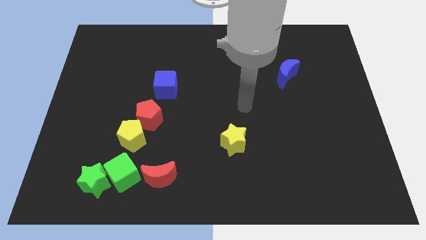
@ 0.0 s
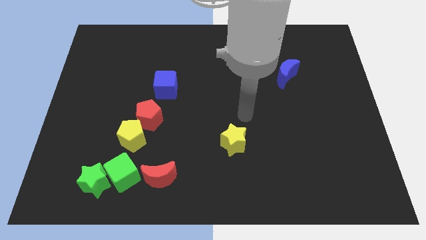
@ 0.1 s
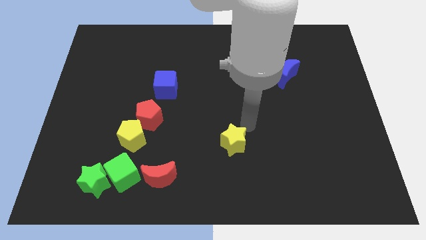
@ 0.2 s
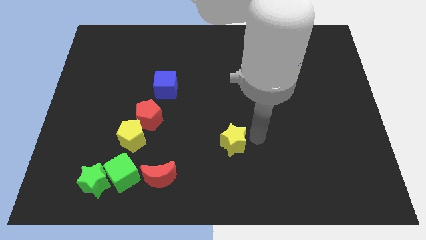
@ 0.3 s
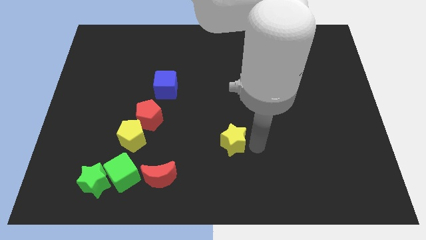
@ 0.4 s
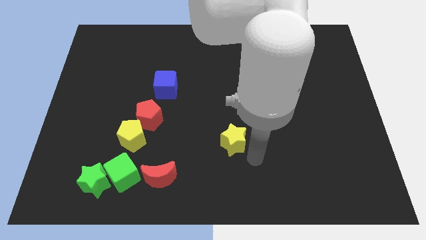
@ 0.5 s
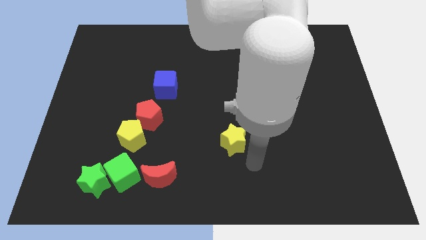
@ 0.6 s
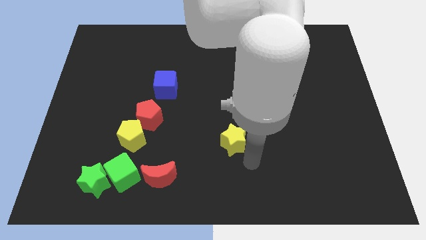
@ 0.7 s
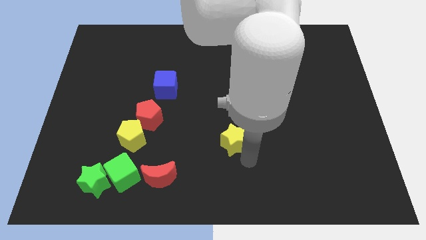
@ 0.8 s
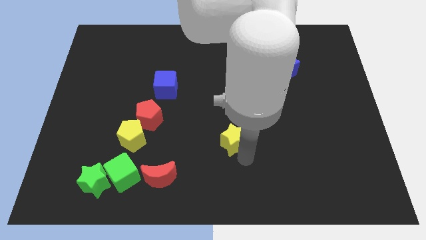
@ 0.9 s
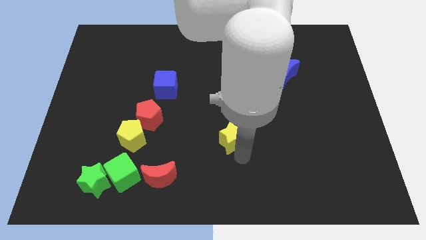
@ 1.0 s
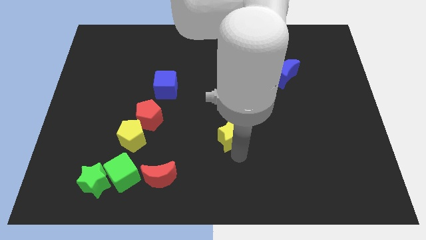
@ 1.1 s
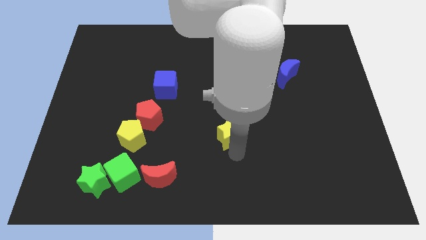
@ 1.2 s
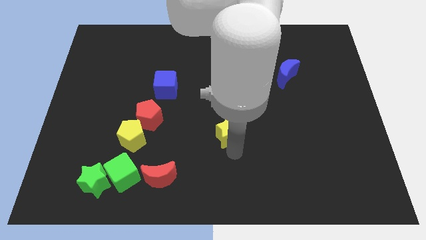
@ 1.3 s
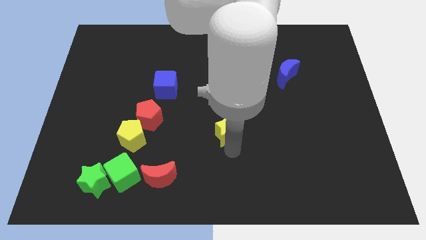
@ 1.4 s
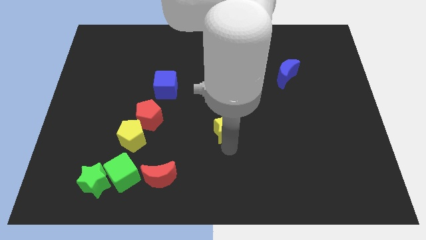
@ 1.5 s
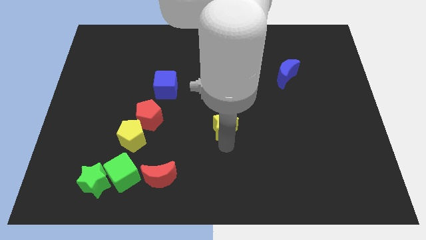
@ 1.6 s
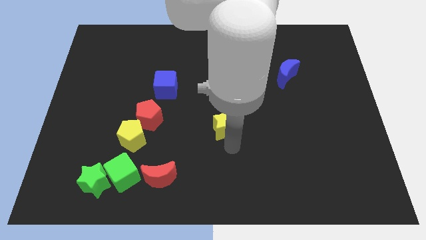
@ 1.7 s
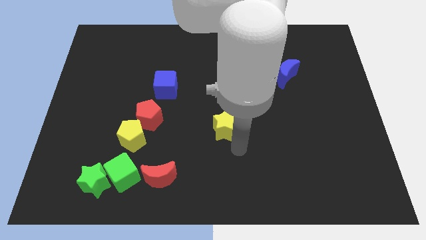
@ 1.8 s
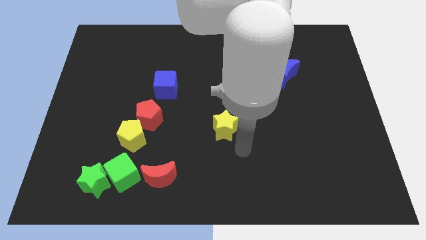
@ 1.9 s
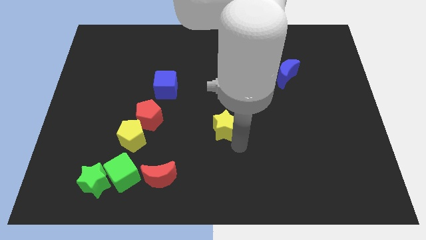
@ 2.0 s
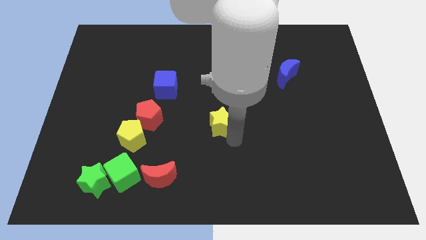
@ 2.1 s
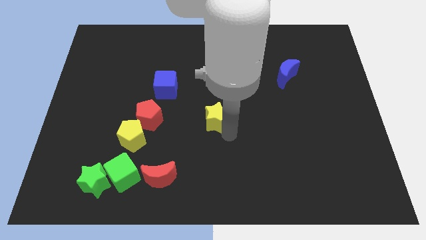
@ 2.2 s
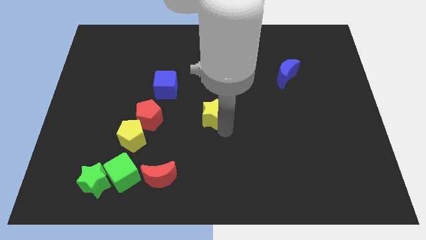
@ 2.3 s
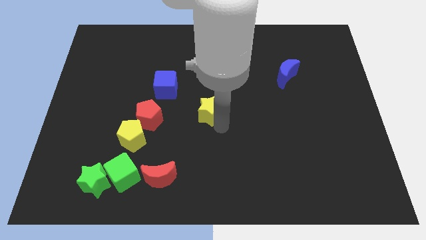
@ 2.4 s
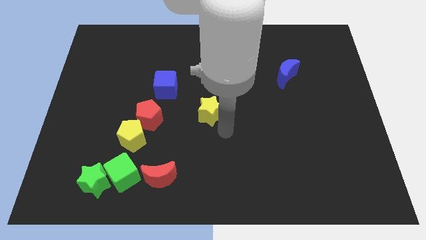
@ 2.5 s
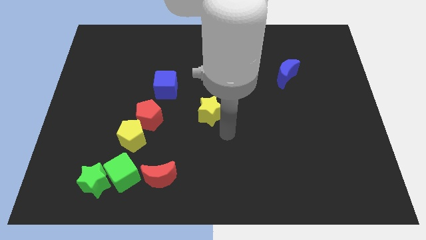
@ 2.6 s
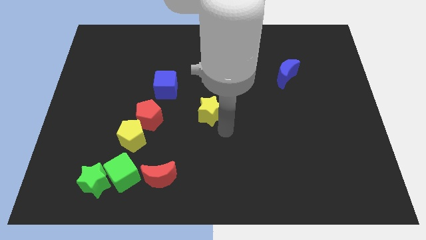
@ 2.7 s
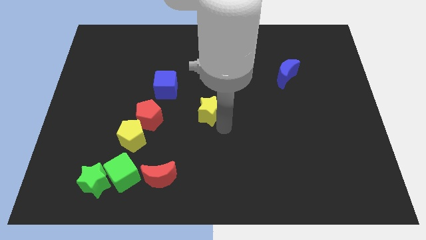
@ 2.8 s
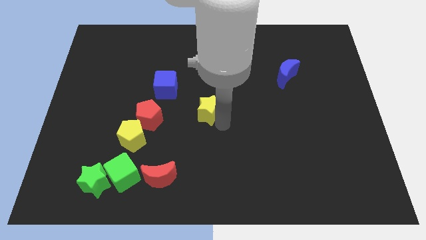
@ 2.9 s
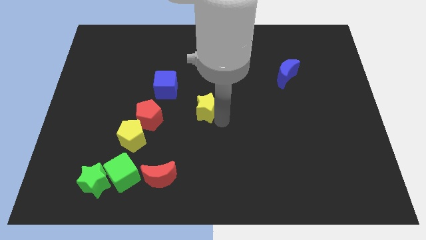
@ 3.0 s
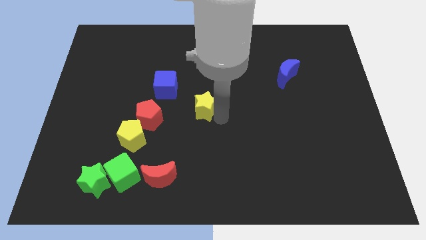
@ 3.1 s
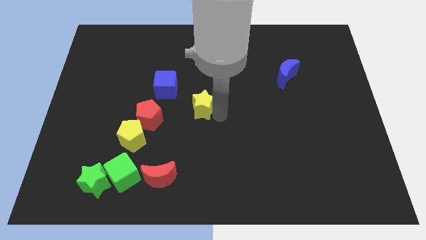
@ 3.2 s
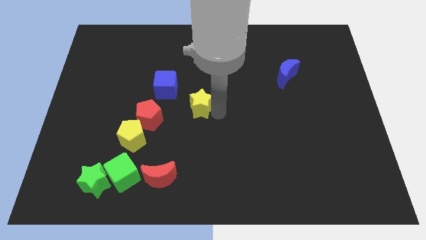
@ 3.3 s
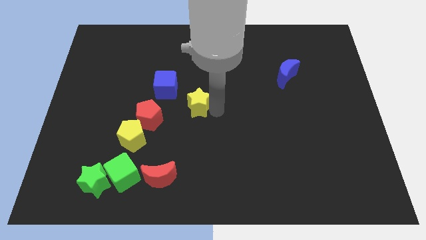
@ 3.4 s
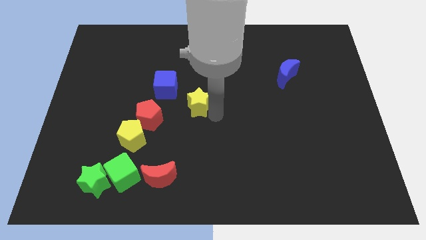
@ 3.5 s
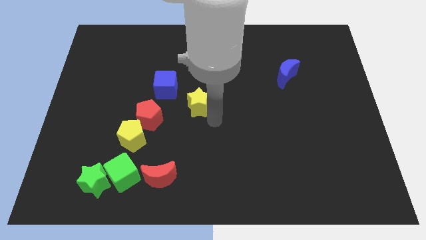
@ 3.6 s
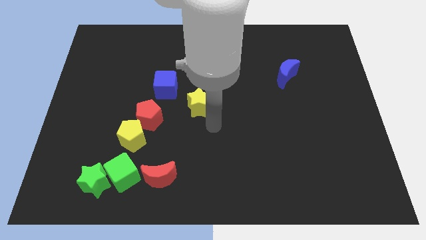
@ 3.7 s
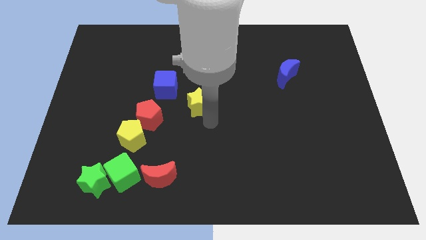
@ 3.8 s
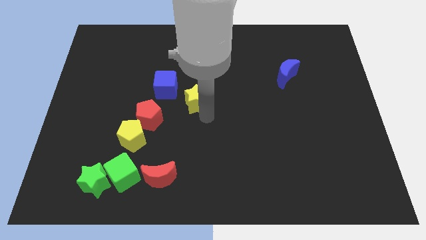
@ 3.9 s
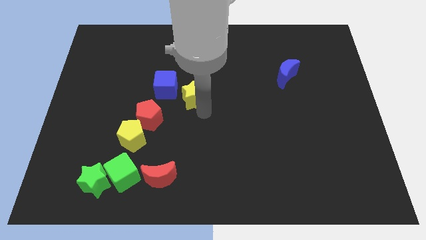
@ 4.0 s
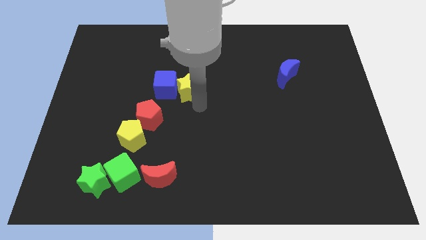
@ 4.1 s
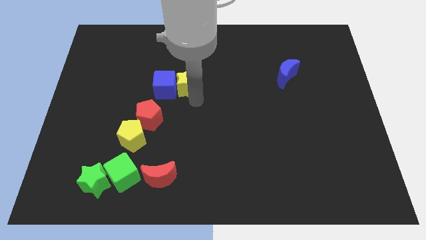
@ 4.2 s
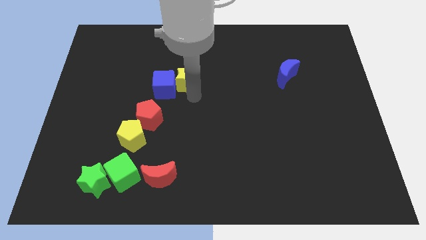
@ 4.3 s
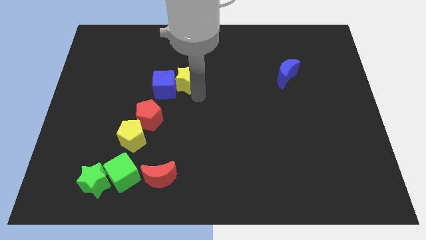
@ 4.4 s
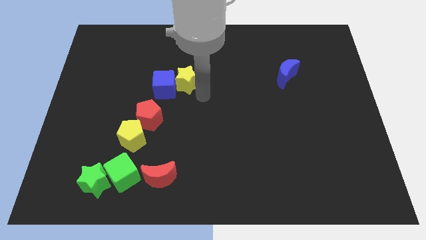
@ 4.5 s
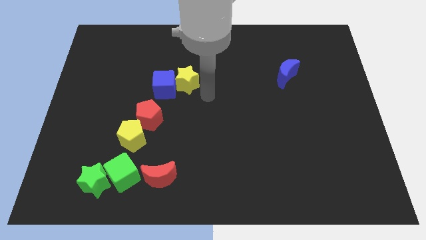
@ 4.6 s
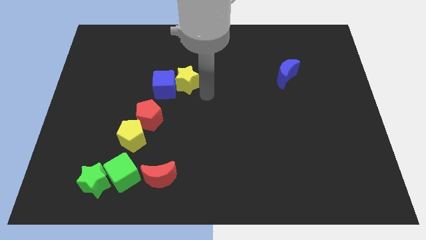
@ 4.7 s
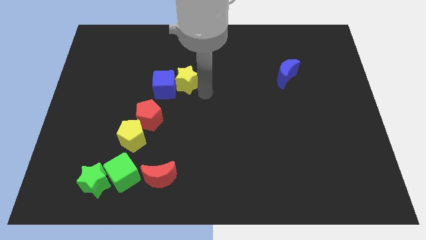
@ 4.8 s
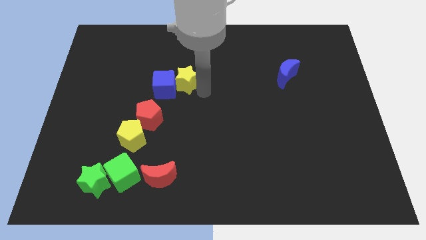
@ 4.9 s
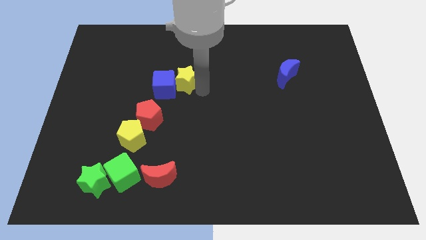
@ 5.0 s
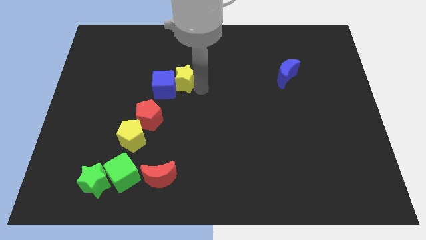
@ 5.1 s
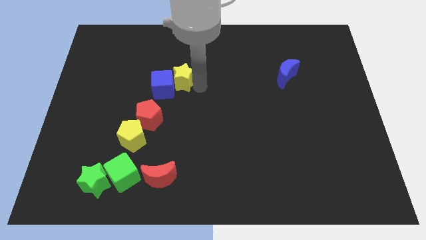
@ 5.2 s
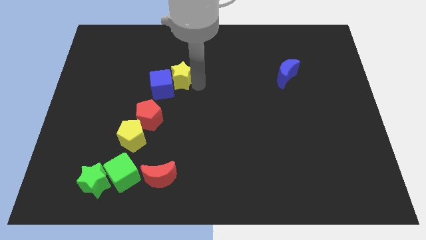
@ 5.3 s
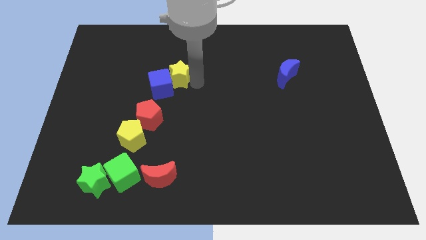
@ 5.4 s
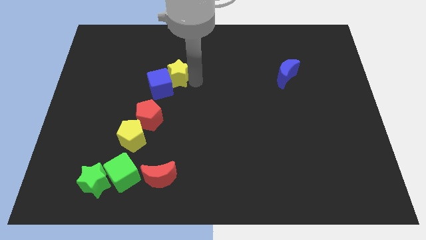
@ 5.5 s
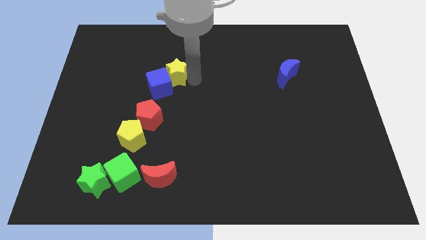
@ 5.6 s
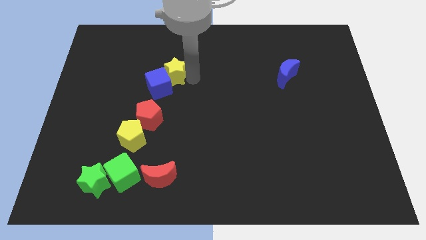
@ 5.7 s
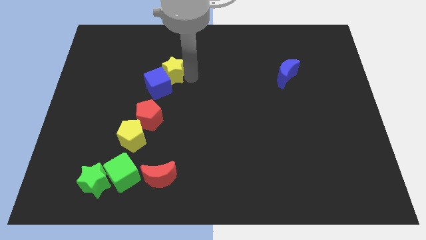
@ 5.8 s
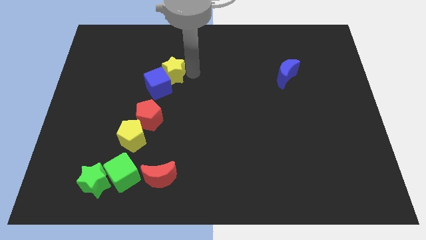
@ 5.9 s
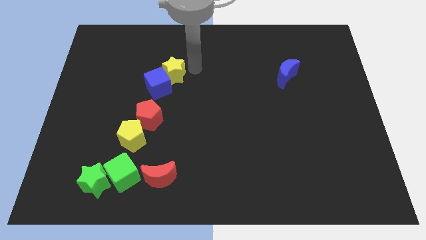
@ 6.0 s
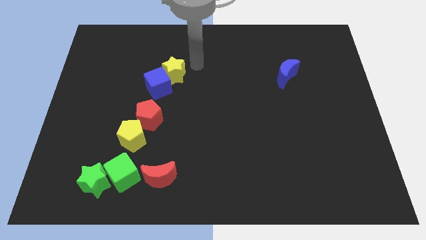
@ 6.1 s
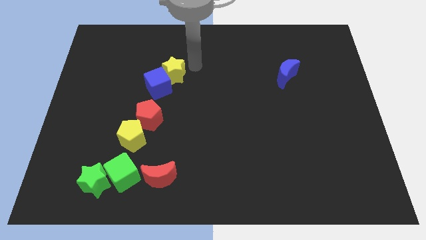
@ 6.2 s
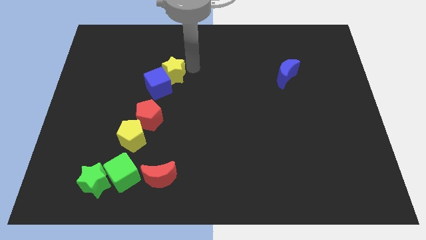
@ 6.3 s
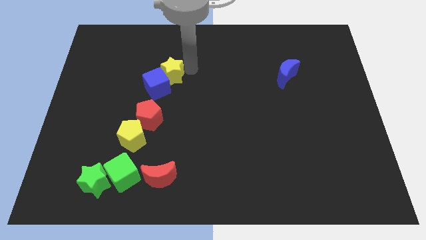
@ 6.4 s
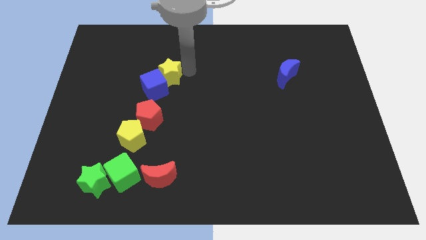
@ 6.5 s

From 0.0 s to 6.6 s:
push the yellow star to the top of the red pentagon

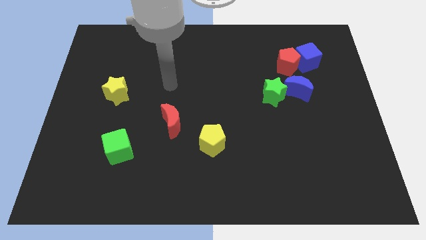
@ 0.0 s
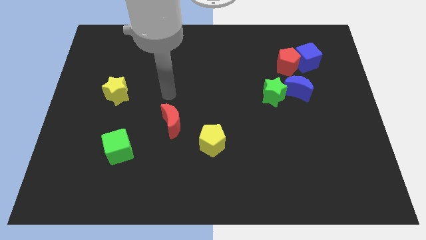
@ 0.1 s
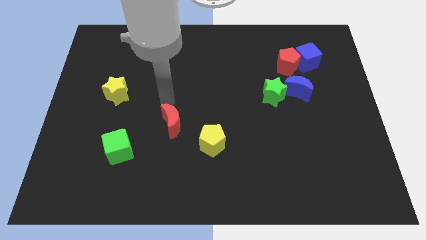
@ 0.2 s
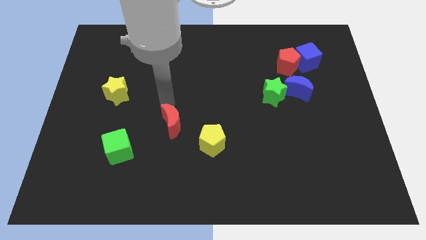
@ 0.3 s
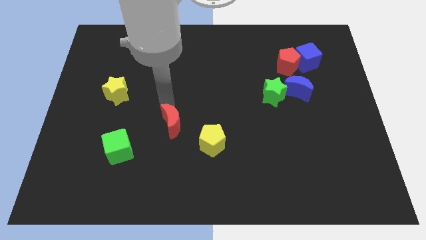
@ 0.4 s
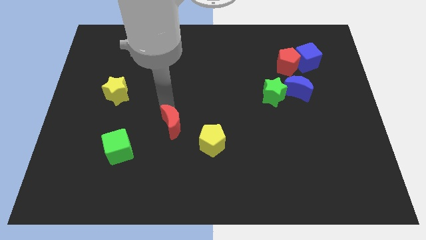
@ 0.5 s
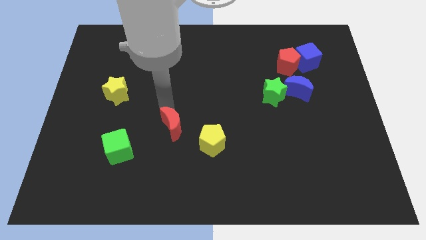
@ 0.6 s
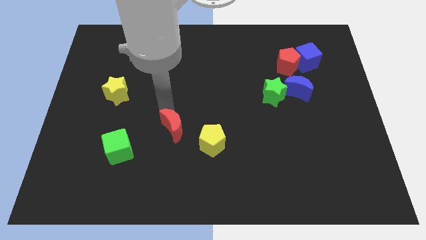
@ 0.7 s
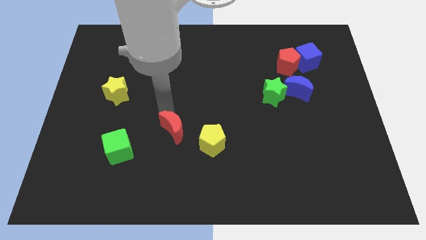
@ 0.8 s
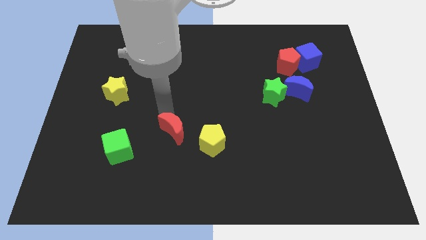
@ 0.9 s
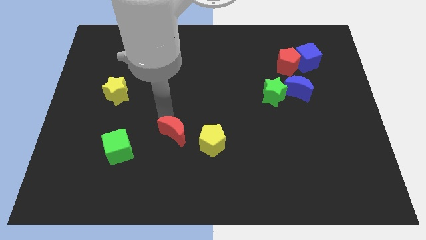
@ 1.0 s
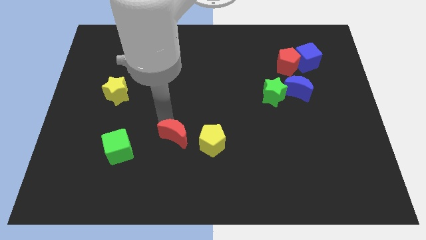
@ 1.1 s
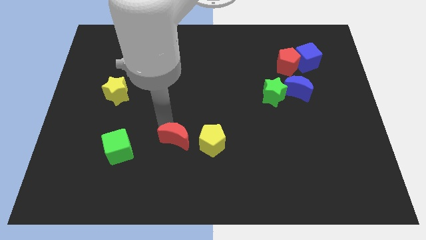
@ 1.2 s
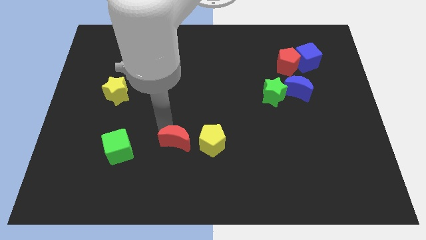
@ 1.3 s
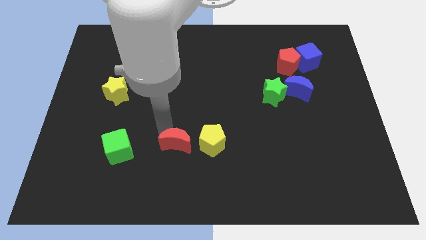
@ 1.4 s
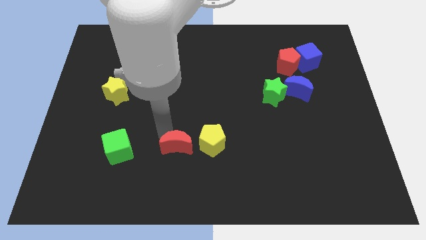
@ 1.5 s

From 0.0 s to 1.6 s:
slide the red moon to the bottom left side of the yellow pentagon
